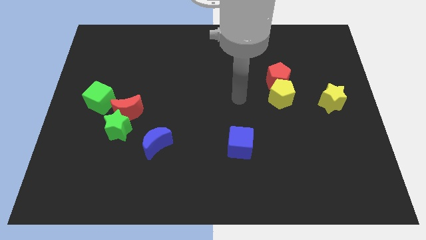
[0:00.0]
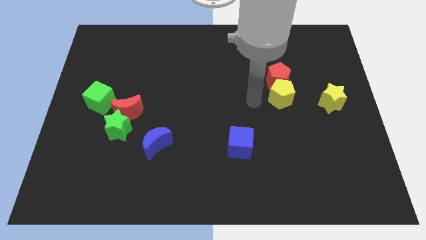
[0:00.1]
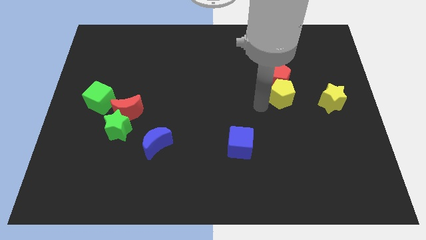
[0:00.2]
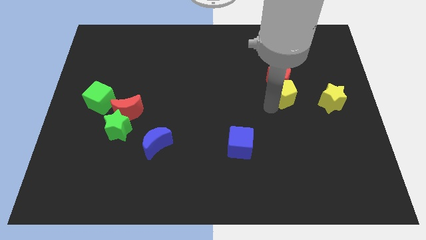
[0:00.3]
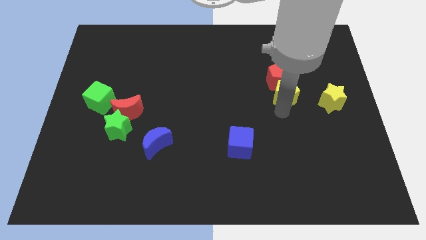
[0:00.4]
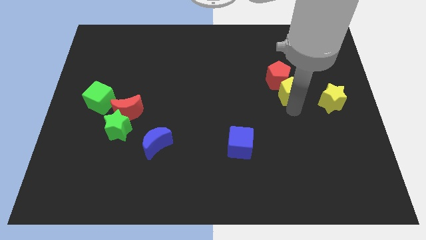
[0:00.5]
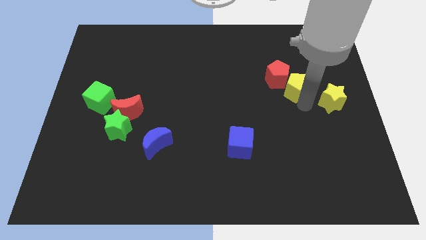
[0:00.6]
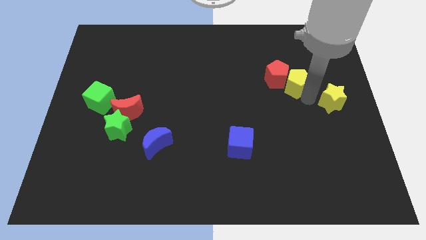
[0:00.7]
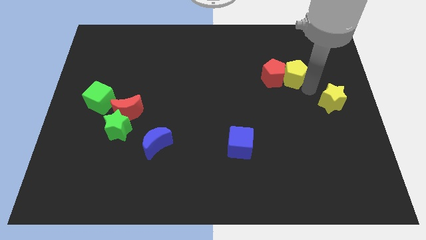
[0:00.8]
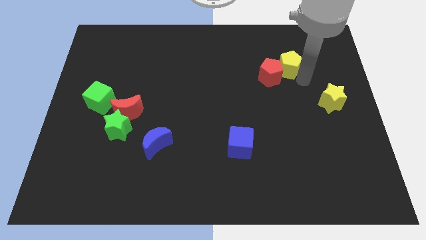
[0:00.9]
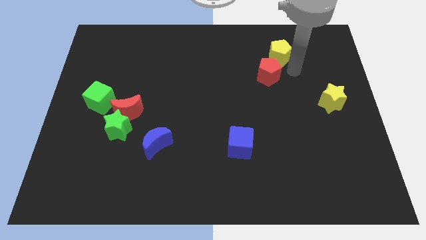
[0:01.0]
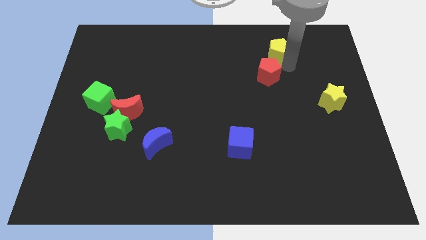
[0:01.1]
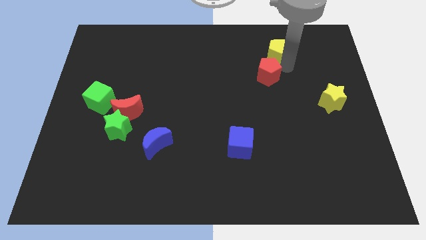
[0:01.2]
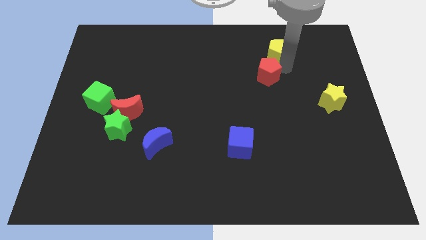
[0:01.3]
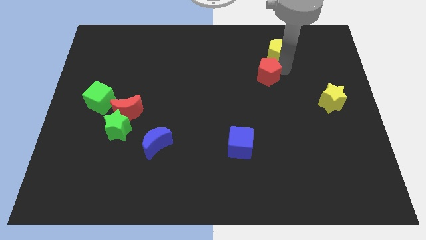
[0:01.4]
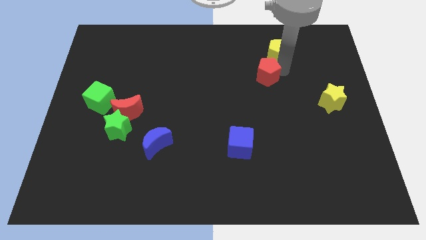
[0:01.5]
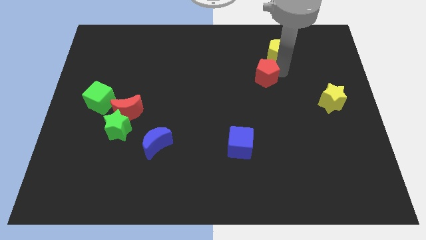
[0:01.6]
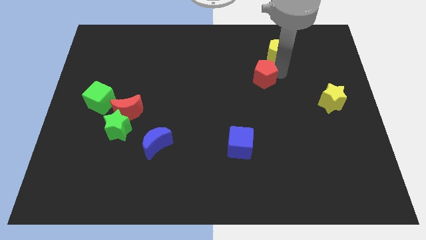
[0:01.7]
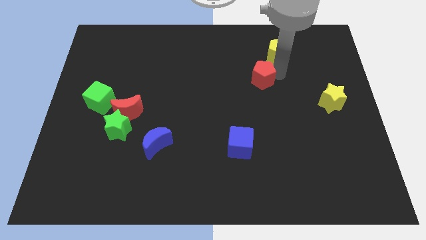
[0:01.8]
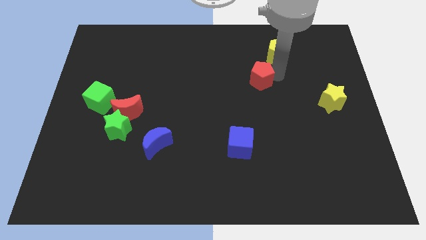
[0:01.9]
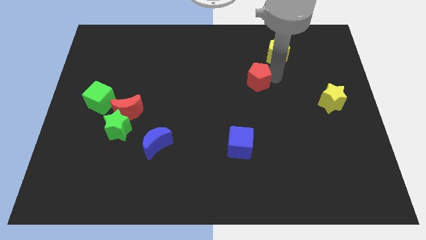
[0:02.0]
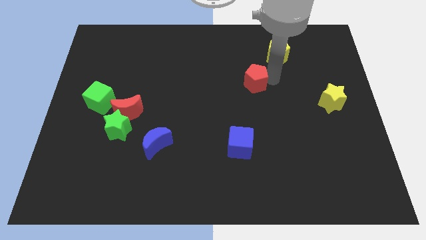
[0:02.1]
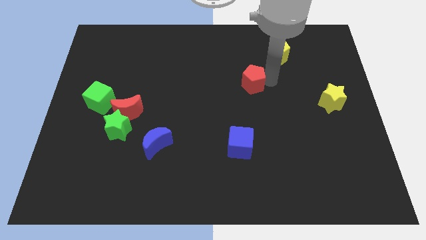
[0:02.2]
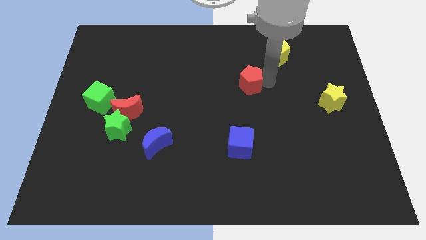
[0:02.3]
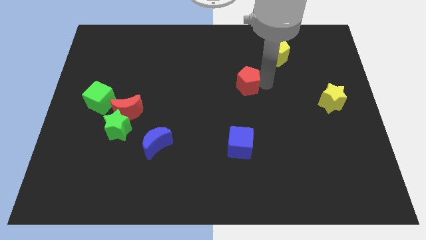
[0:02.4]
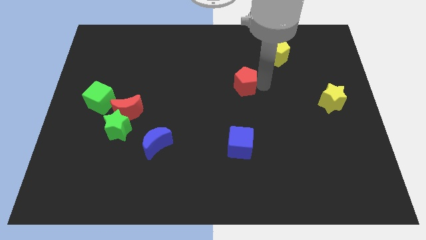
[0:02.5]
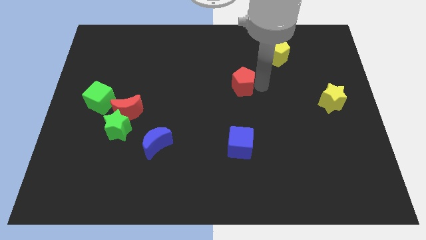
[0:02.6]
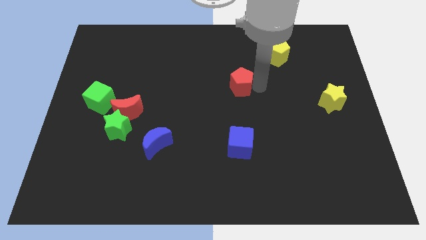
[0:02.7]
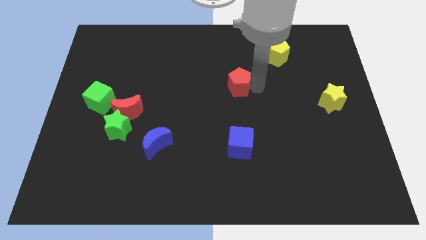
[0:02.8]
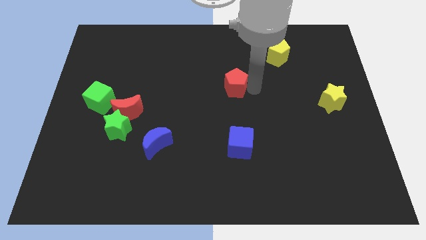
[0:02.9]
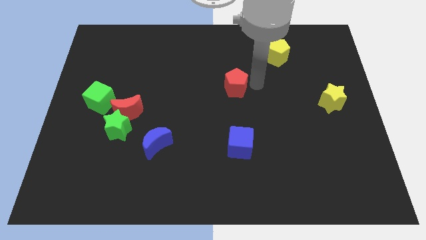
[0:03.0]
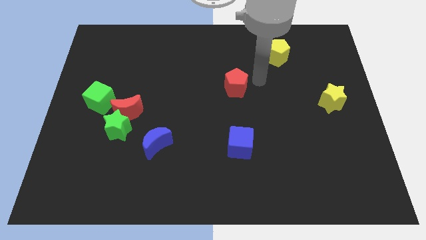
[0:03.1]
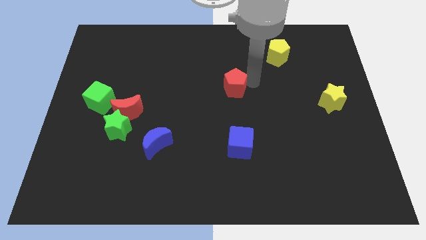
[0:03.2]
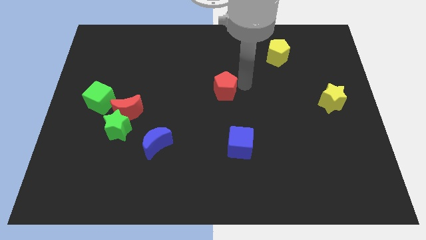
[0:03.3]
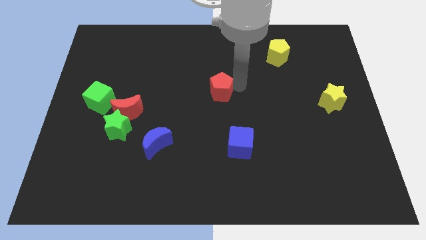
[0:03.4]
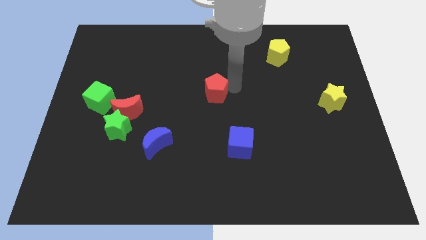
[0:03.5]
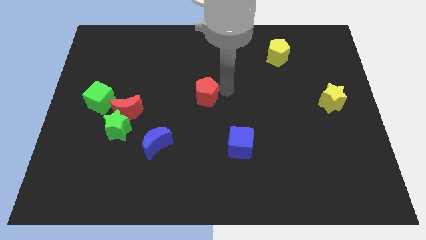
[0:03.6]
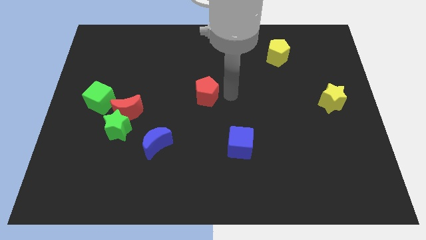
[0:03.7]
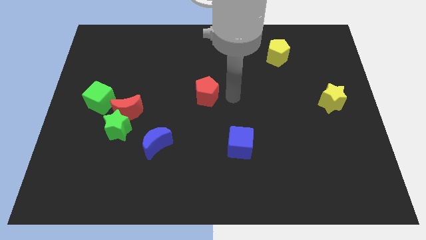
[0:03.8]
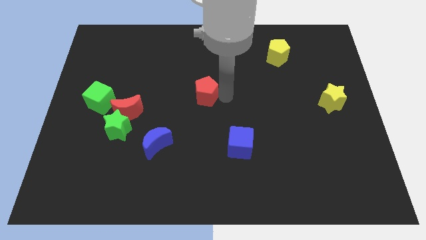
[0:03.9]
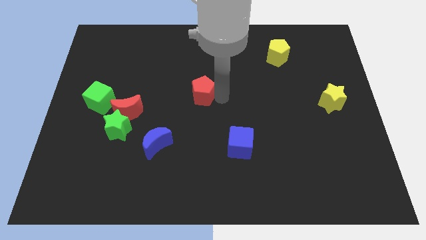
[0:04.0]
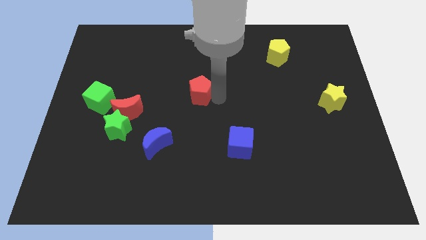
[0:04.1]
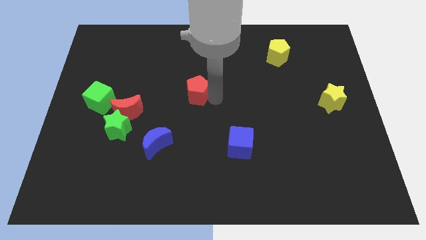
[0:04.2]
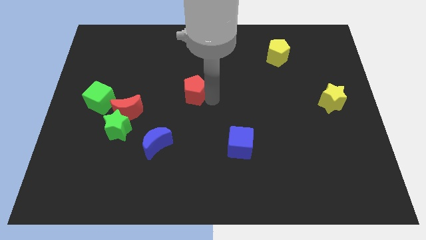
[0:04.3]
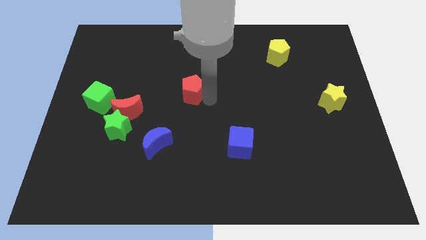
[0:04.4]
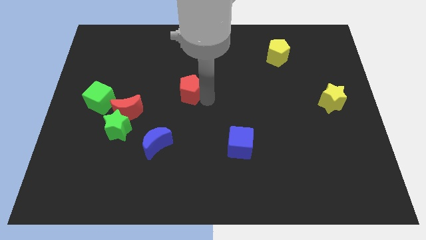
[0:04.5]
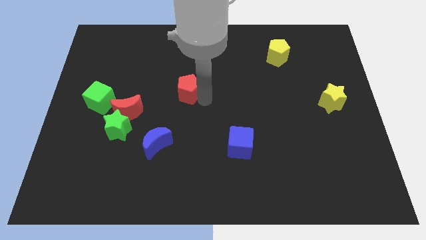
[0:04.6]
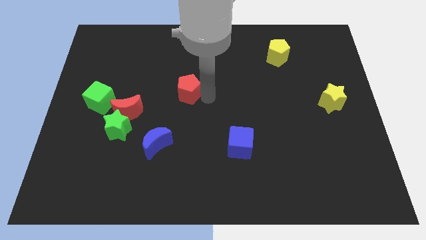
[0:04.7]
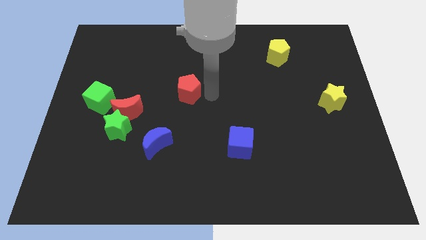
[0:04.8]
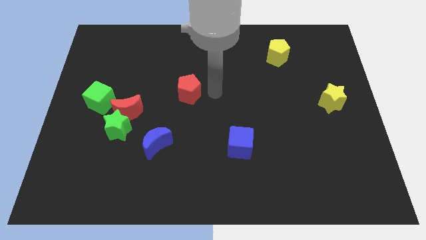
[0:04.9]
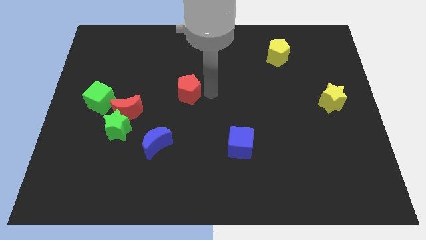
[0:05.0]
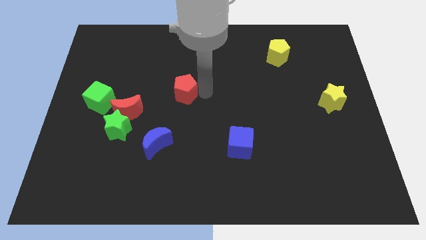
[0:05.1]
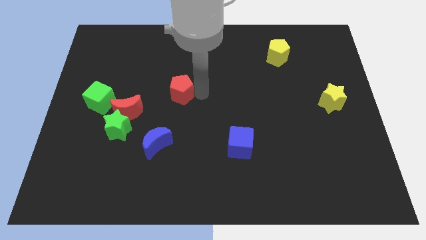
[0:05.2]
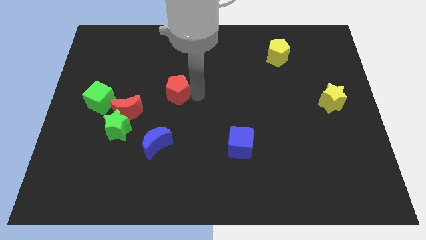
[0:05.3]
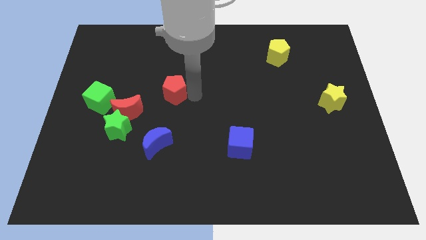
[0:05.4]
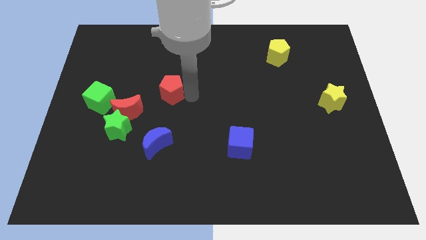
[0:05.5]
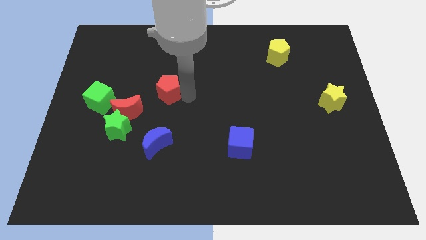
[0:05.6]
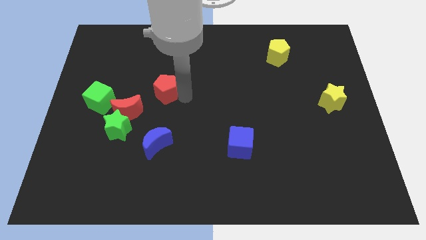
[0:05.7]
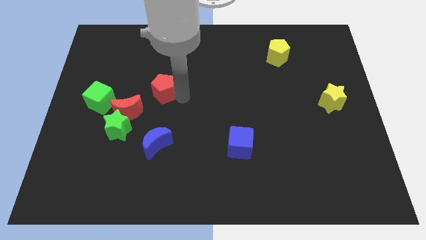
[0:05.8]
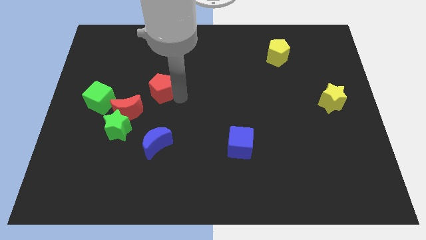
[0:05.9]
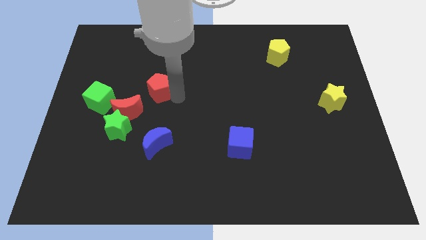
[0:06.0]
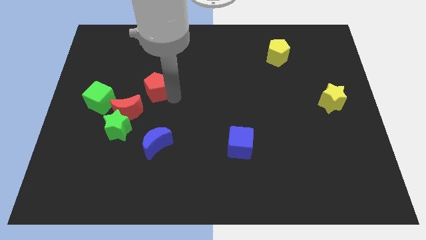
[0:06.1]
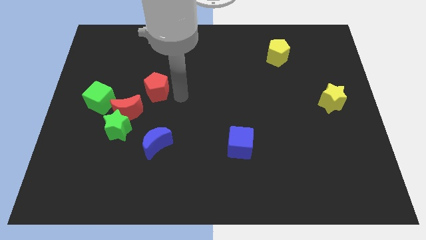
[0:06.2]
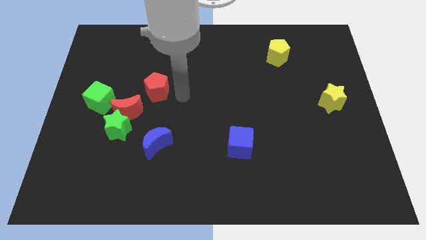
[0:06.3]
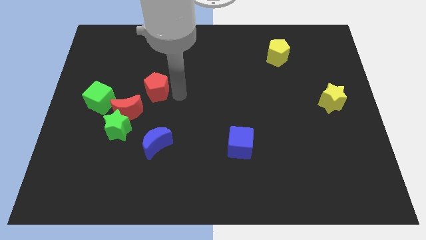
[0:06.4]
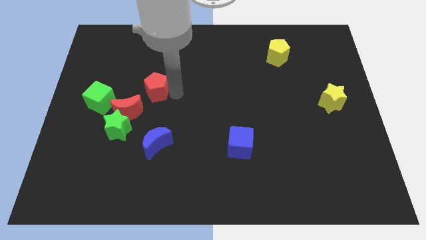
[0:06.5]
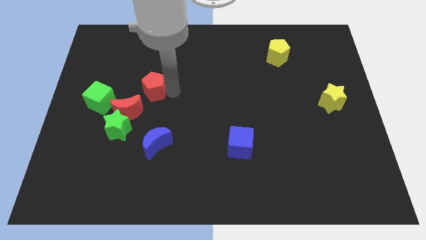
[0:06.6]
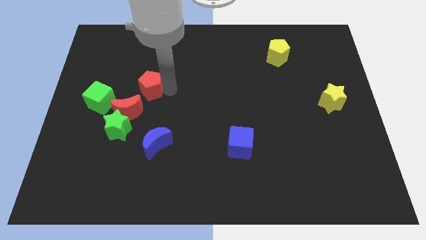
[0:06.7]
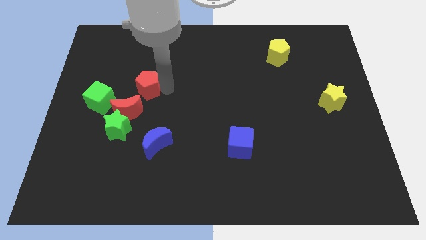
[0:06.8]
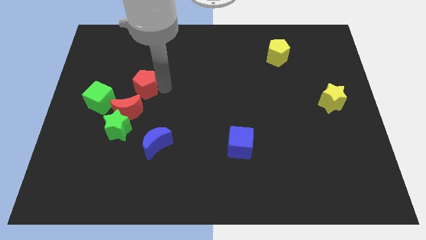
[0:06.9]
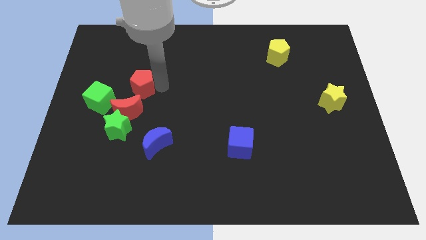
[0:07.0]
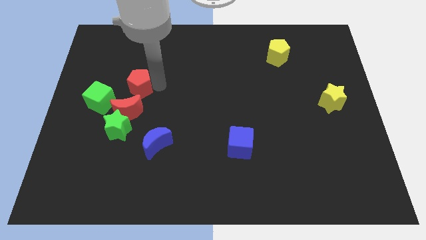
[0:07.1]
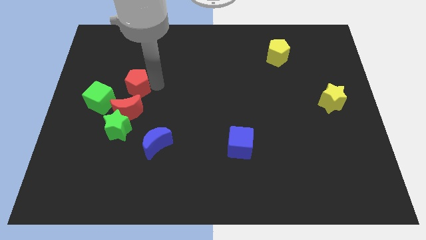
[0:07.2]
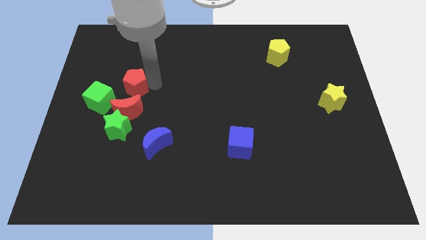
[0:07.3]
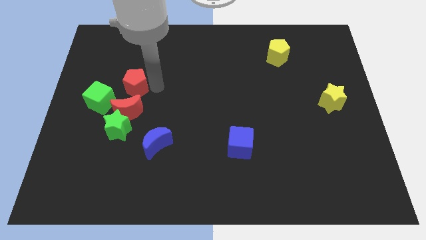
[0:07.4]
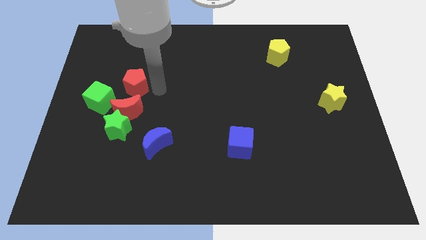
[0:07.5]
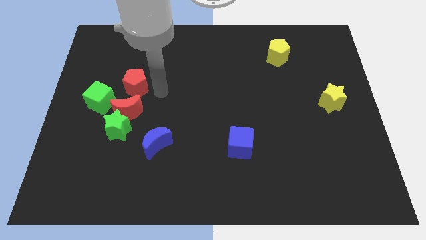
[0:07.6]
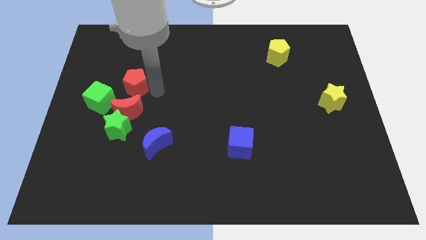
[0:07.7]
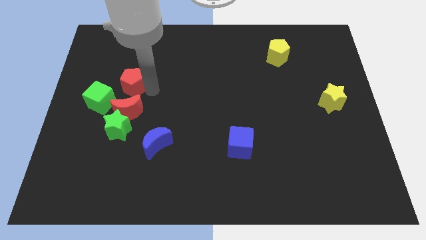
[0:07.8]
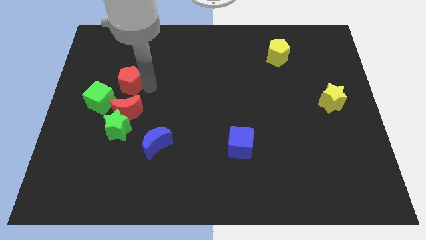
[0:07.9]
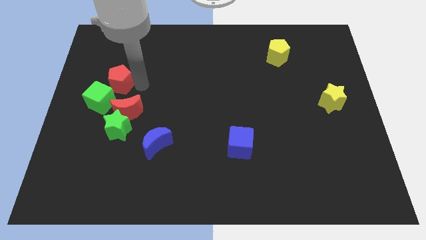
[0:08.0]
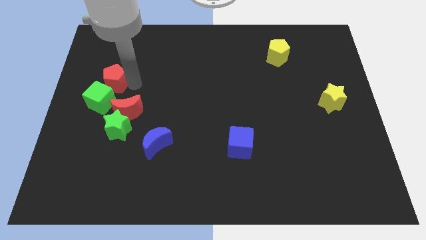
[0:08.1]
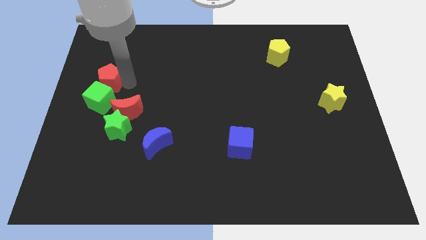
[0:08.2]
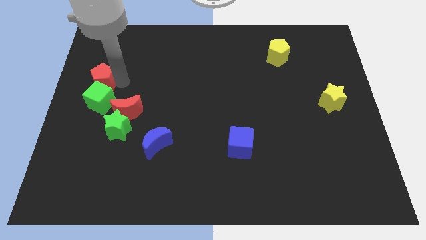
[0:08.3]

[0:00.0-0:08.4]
push the red pentagon to the left side of the board
